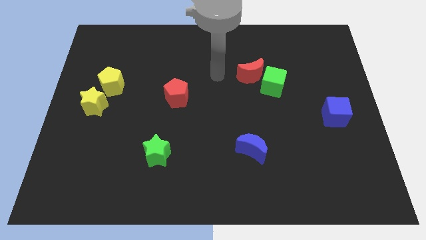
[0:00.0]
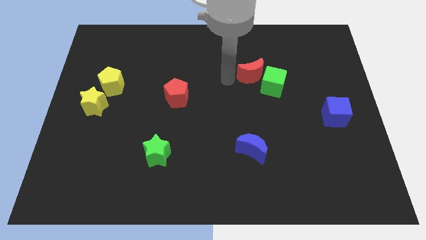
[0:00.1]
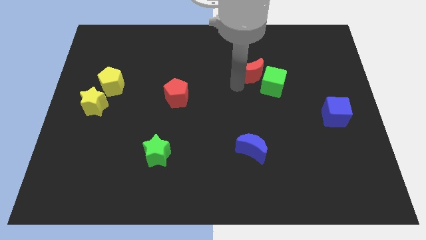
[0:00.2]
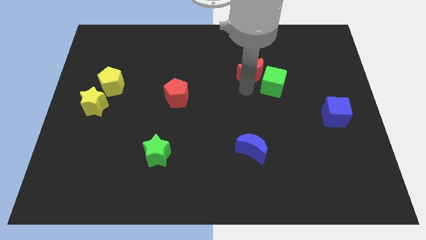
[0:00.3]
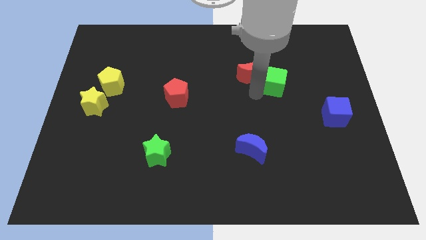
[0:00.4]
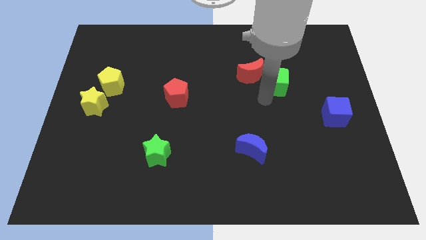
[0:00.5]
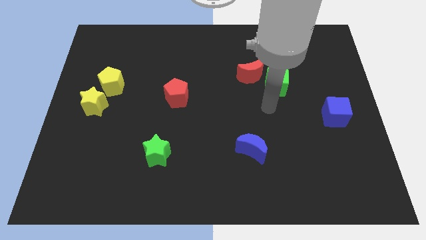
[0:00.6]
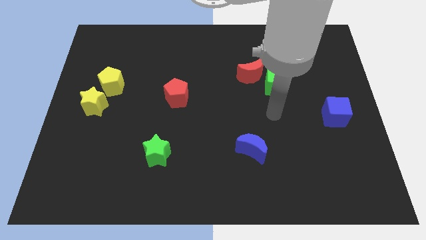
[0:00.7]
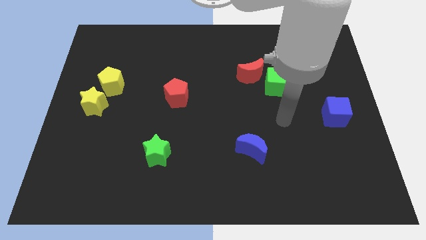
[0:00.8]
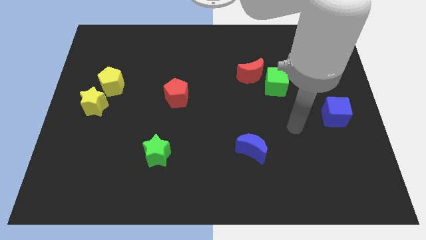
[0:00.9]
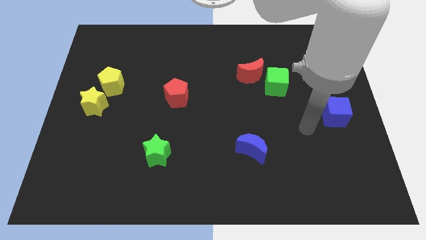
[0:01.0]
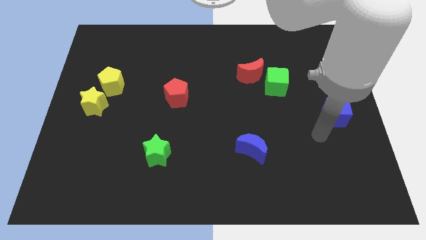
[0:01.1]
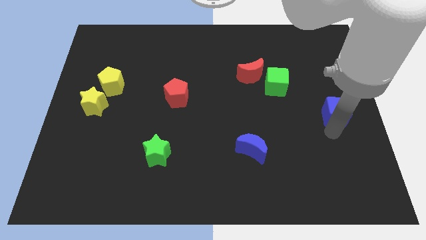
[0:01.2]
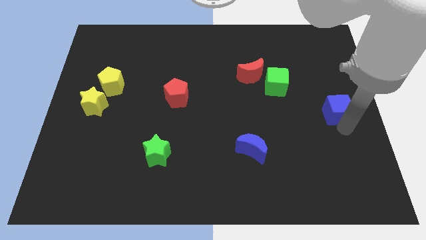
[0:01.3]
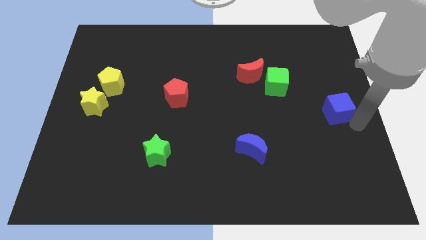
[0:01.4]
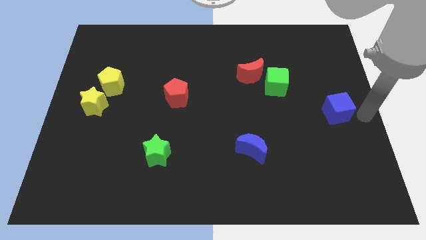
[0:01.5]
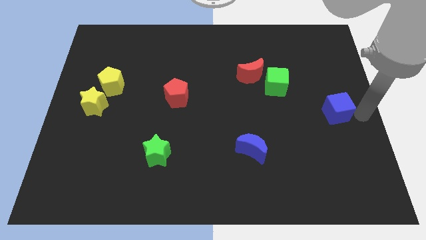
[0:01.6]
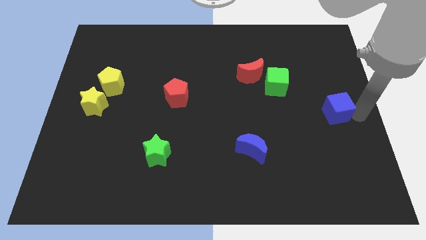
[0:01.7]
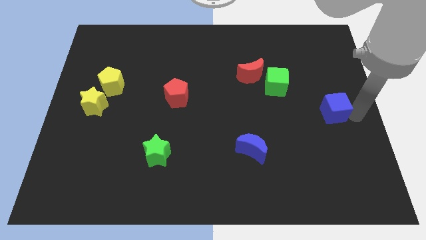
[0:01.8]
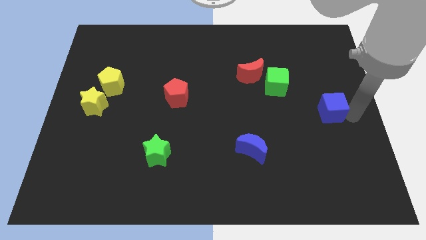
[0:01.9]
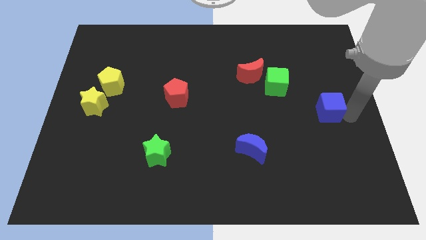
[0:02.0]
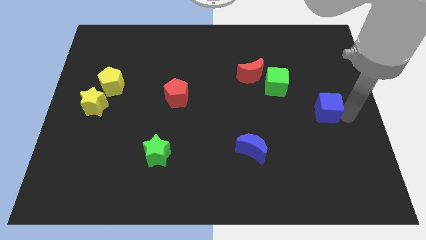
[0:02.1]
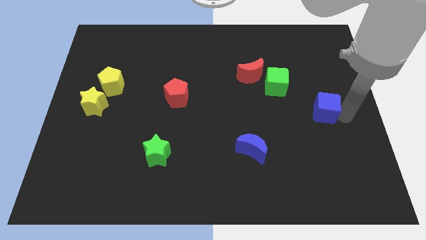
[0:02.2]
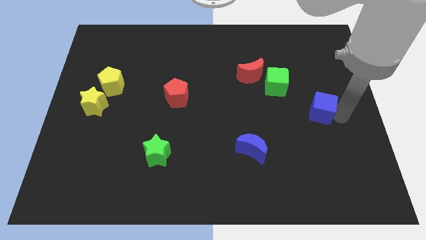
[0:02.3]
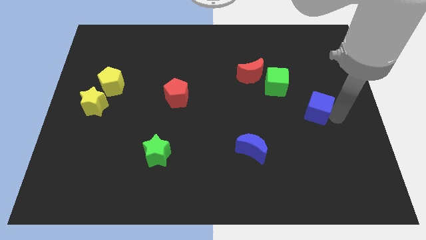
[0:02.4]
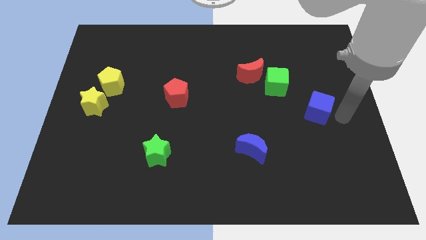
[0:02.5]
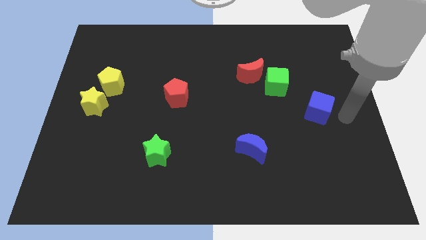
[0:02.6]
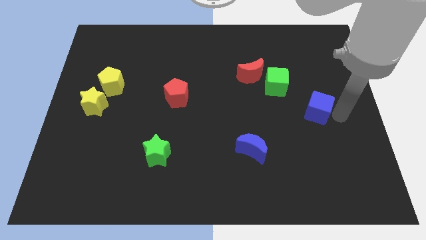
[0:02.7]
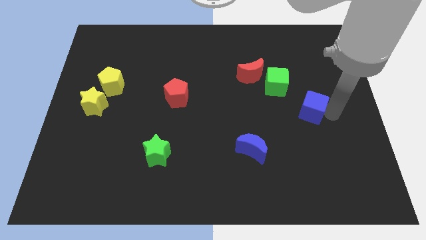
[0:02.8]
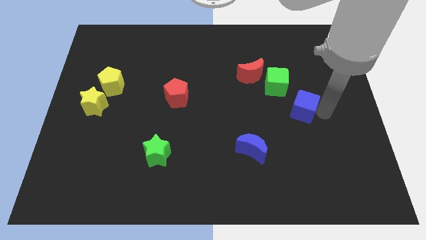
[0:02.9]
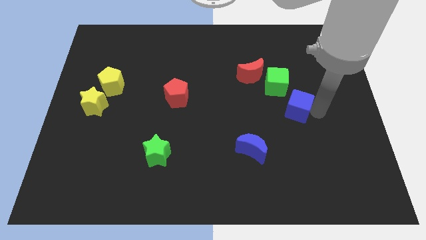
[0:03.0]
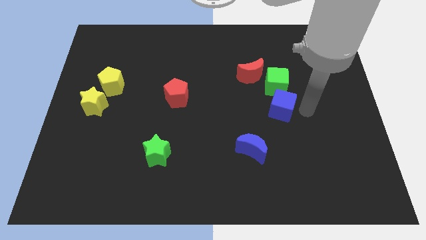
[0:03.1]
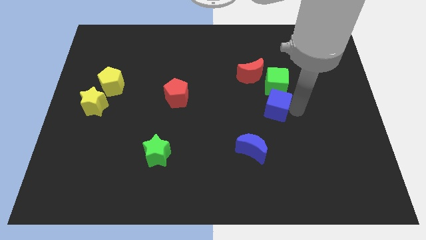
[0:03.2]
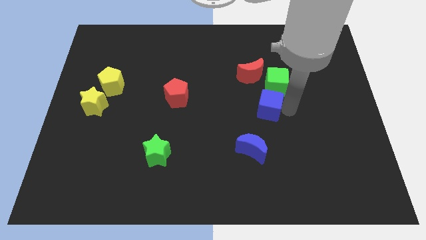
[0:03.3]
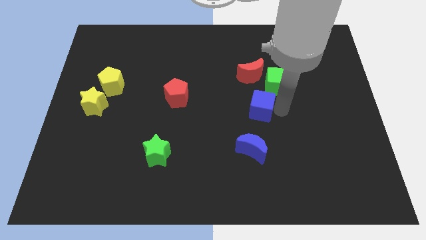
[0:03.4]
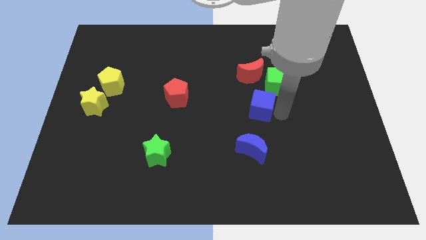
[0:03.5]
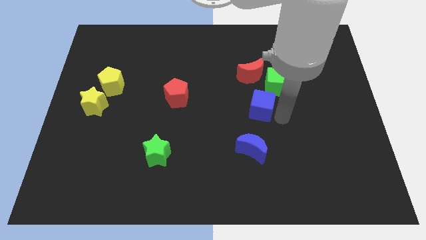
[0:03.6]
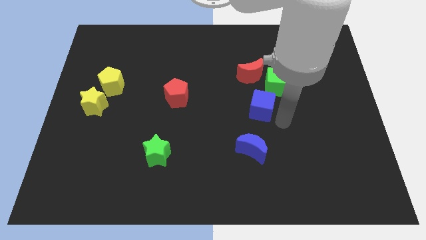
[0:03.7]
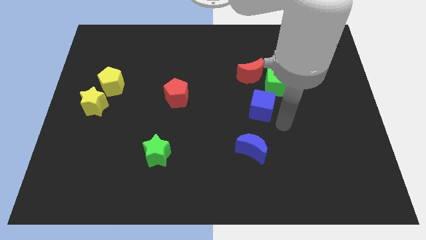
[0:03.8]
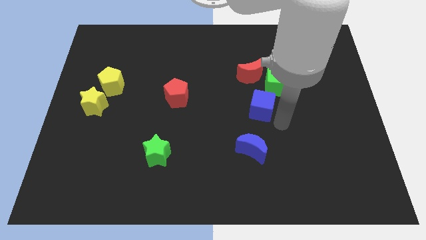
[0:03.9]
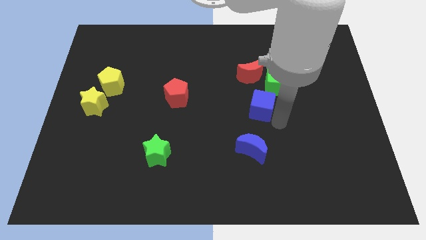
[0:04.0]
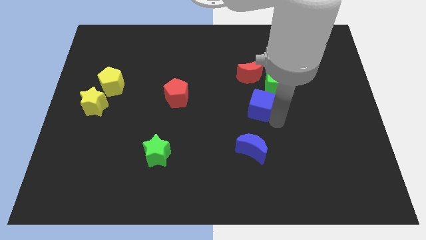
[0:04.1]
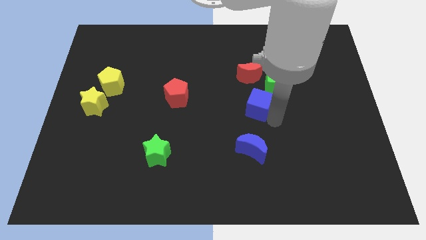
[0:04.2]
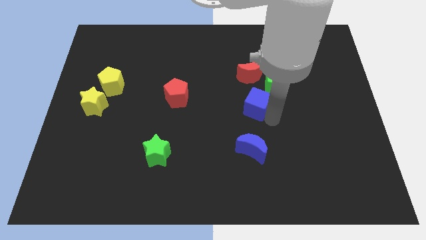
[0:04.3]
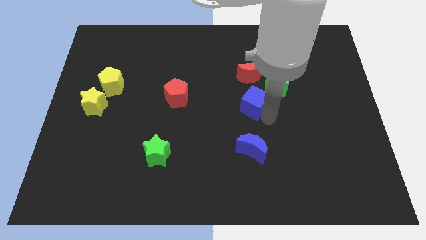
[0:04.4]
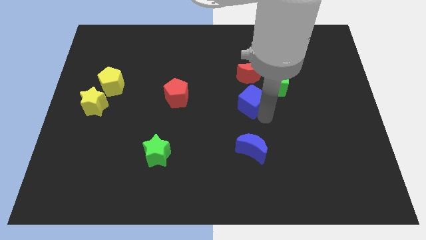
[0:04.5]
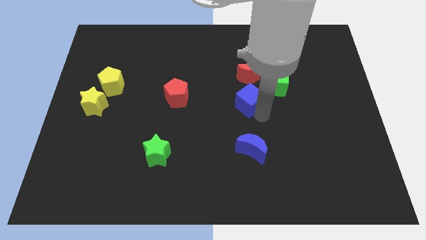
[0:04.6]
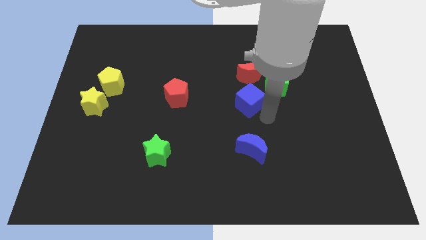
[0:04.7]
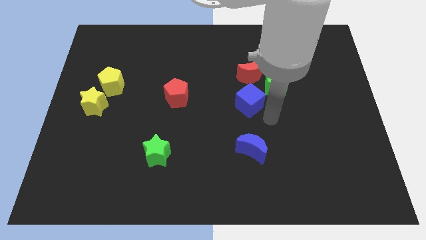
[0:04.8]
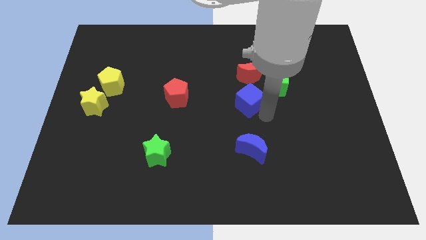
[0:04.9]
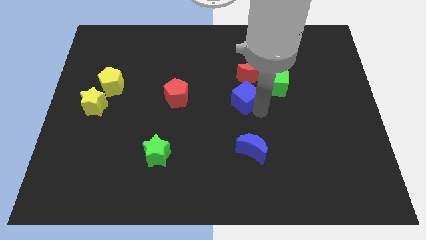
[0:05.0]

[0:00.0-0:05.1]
slide the blue cube diagonally down and to the left of the red moon
